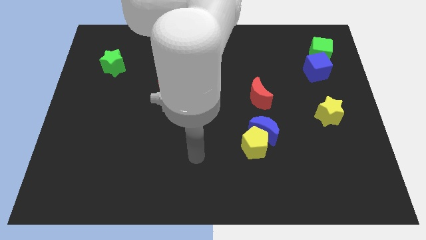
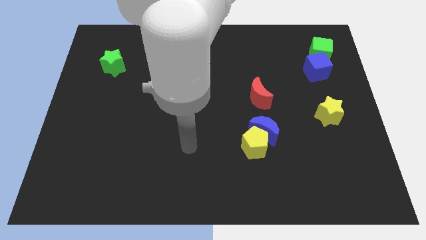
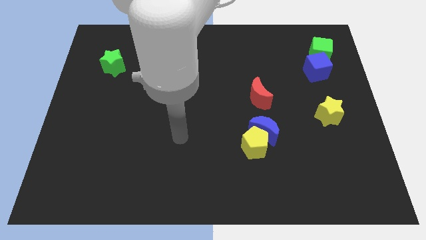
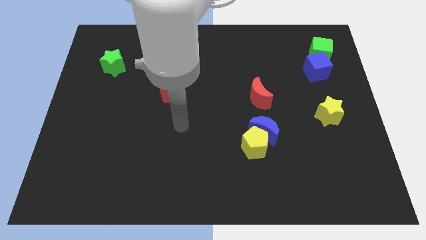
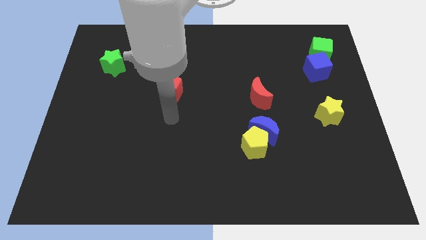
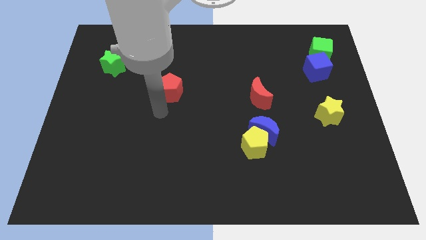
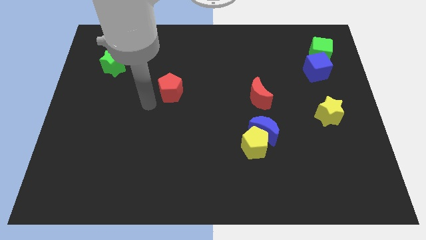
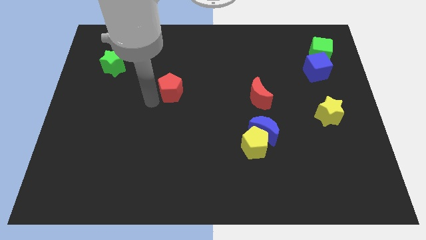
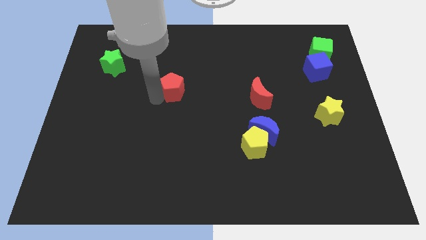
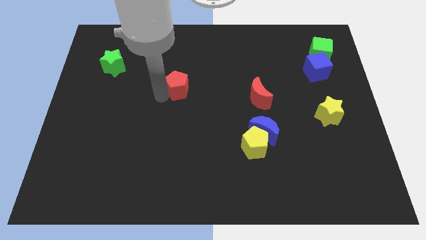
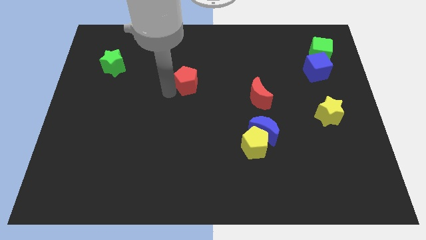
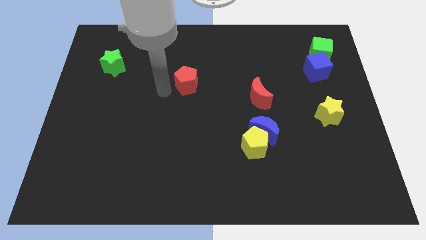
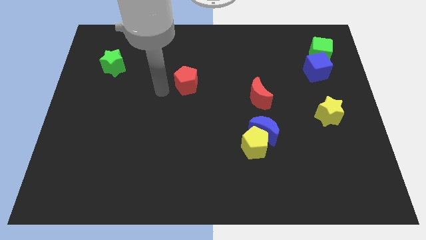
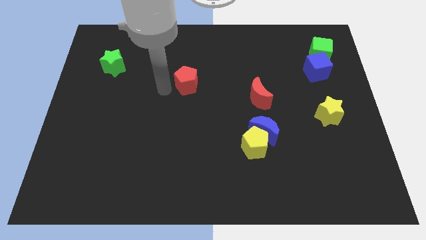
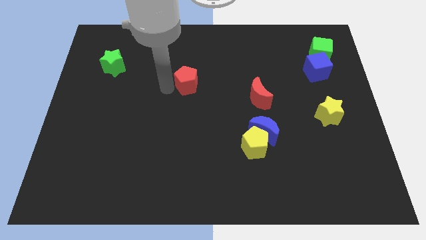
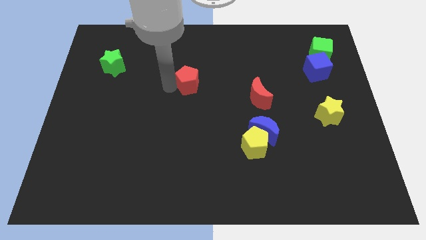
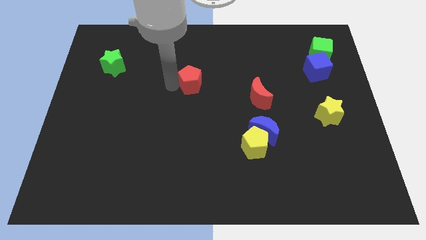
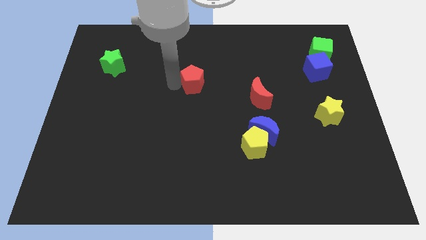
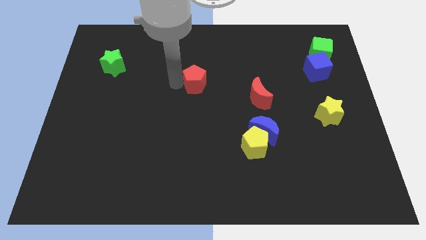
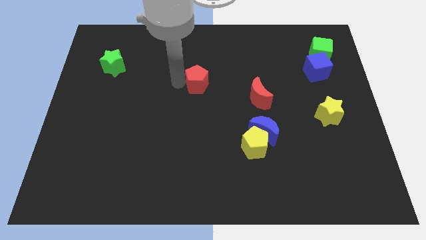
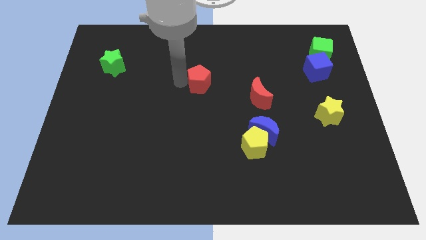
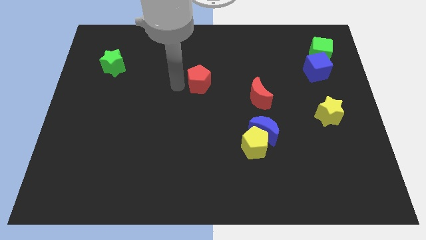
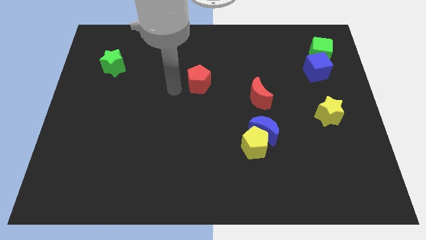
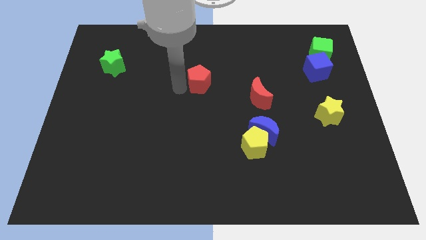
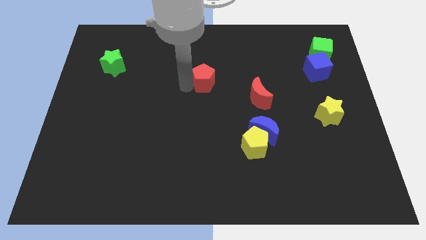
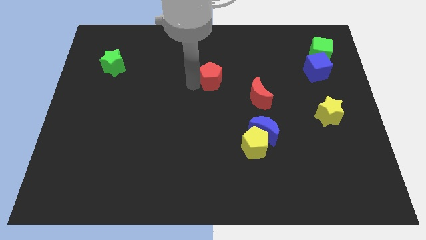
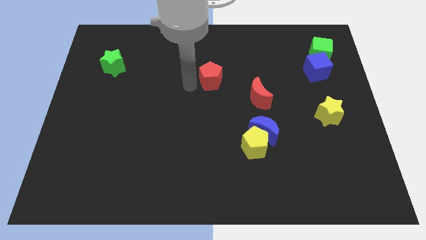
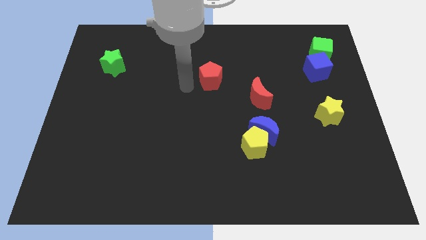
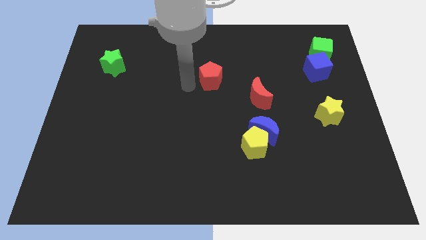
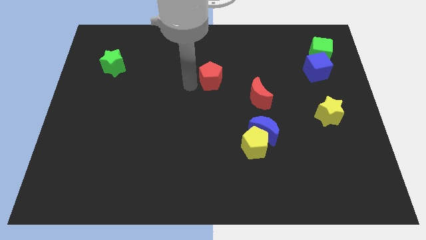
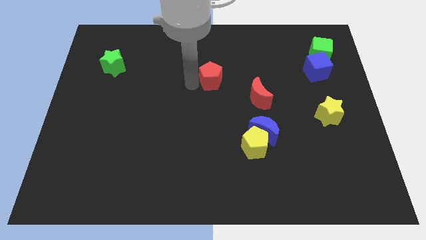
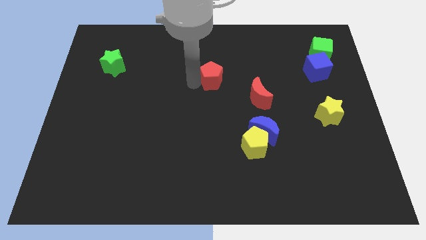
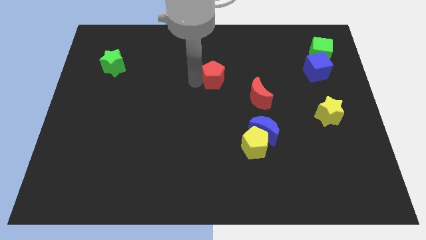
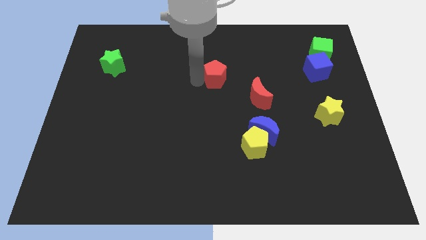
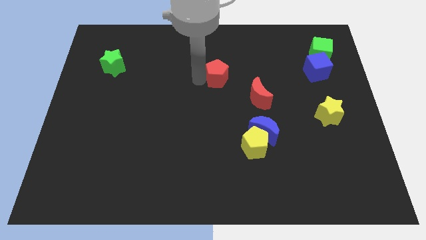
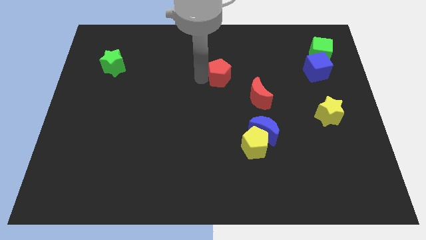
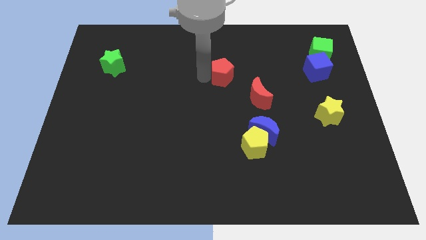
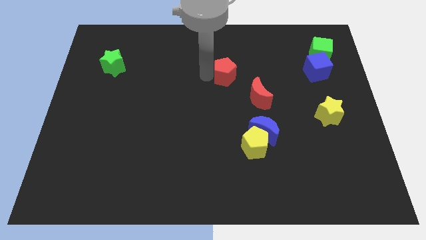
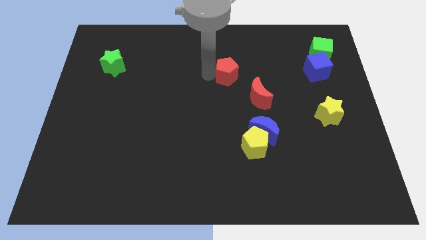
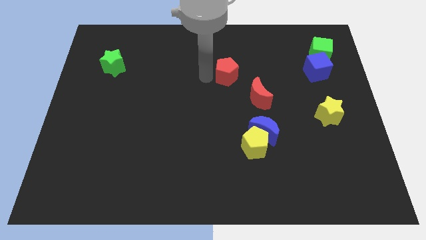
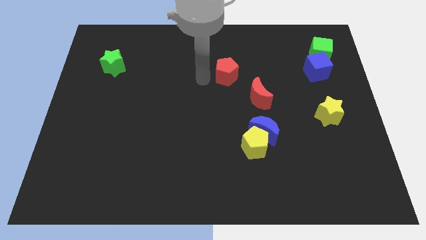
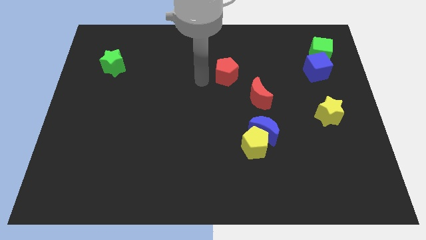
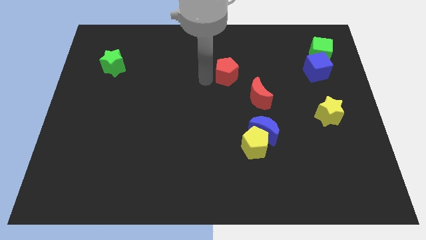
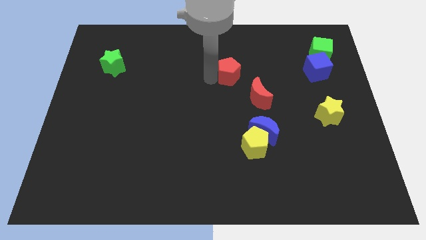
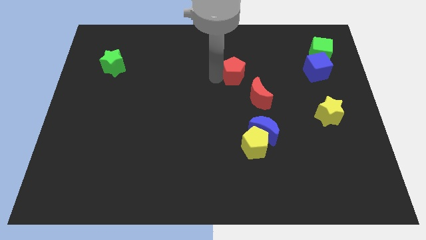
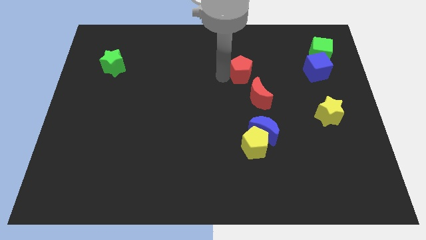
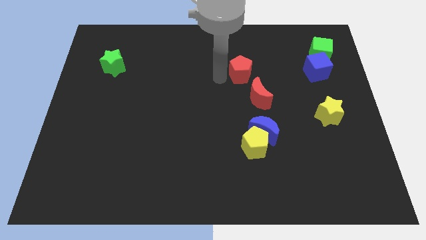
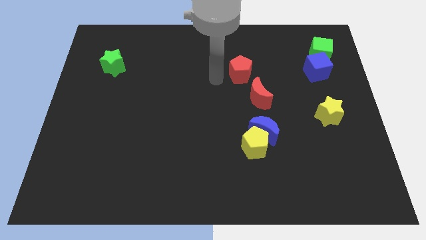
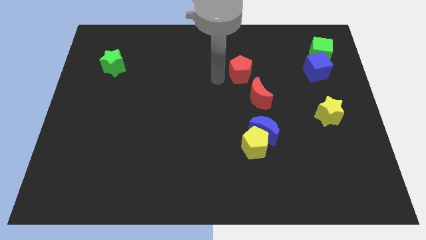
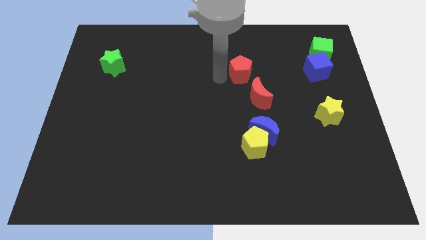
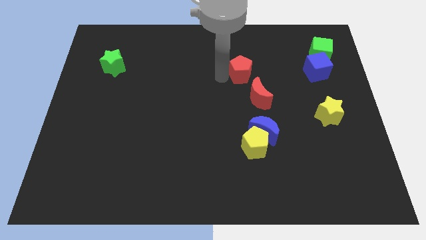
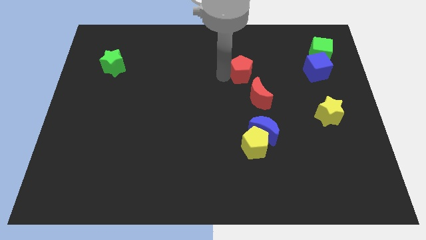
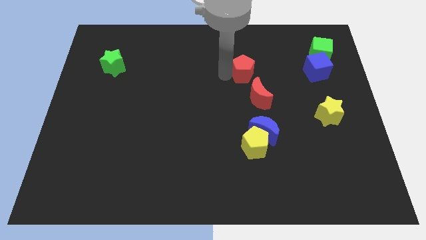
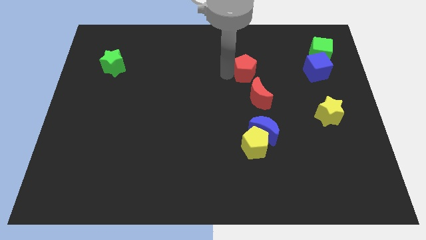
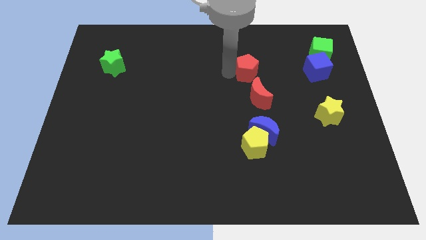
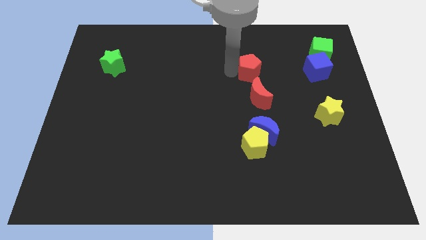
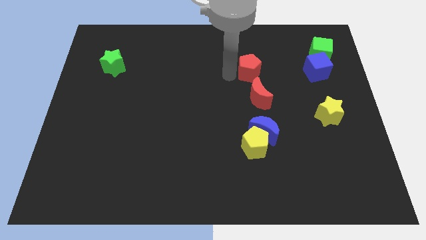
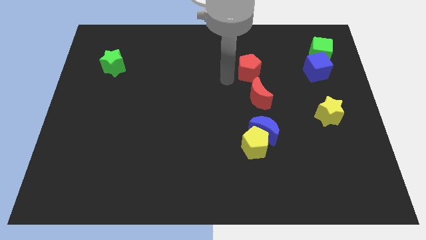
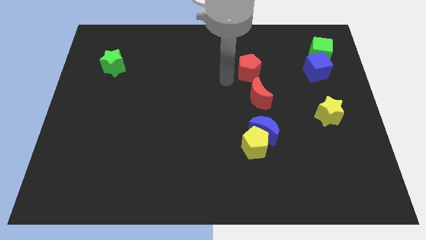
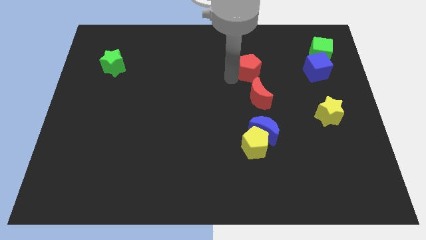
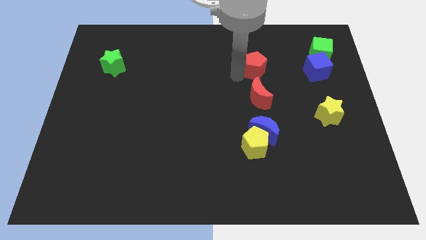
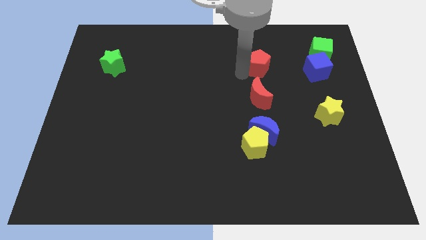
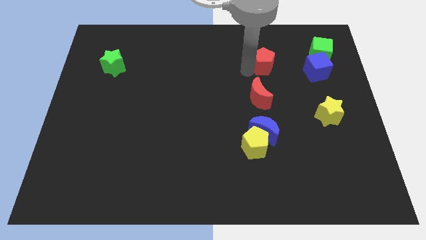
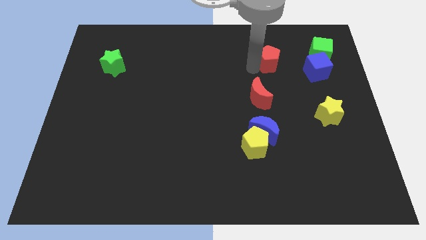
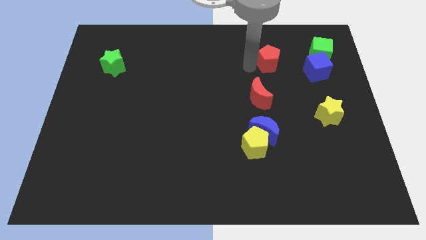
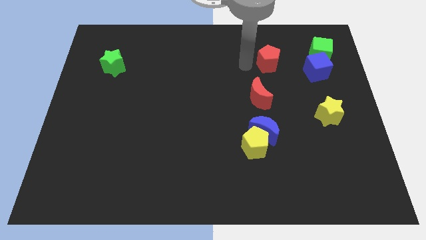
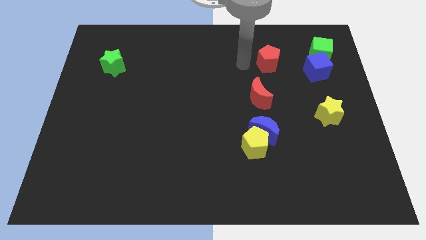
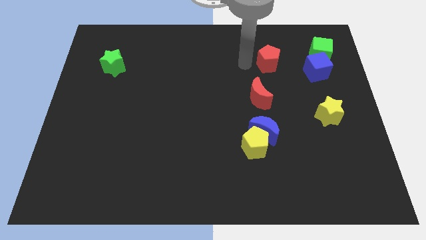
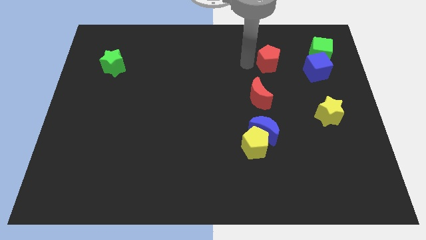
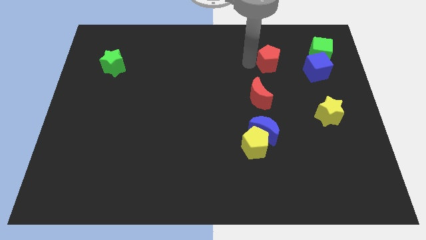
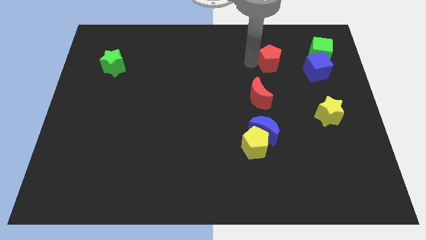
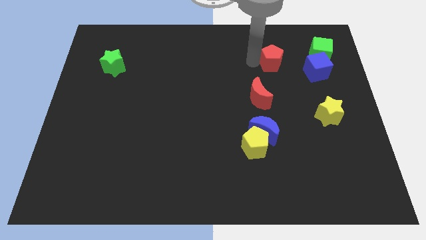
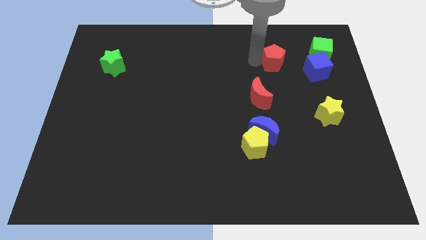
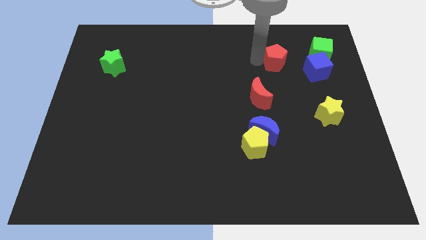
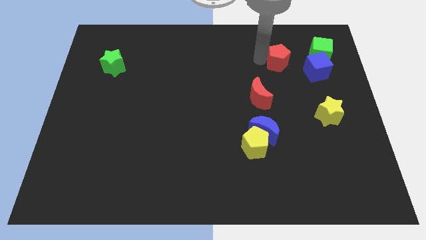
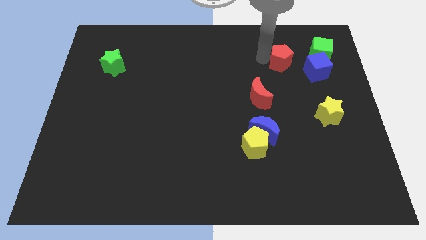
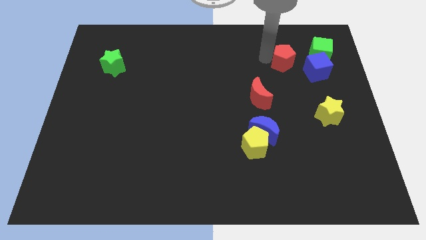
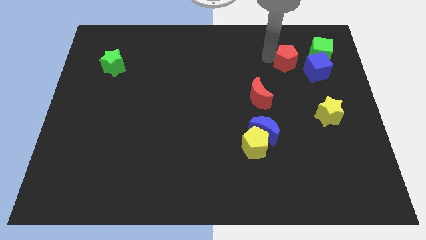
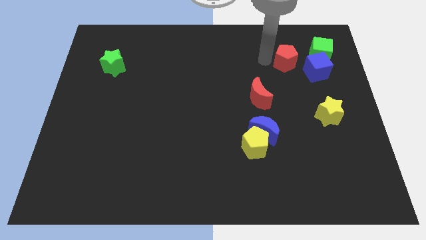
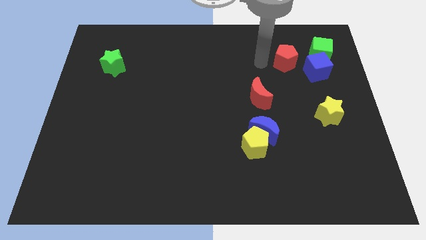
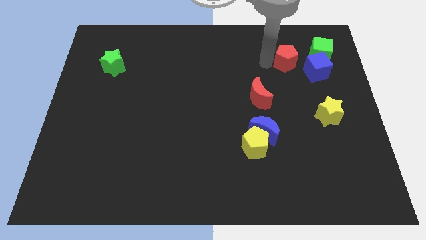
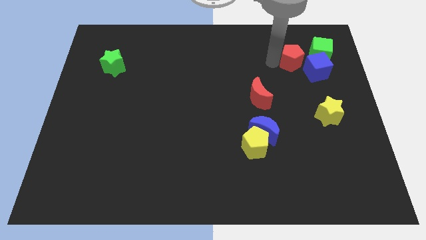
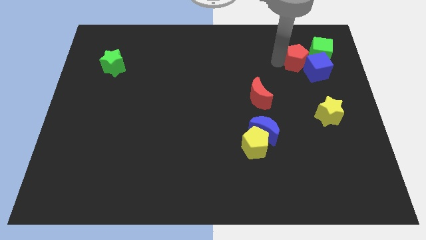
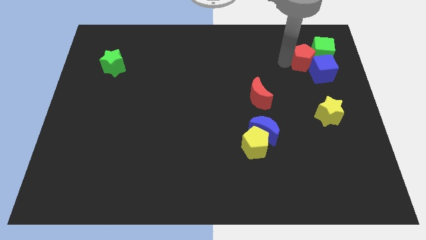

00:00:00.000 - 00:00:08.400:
move the red pentagon to the green cube
